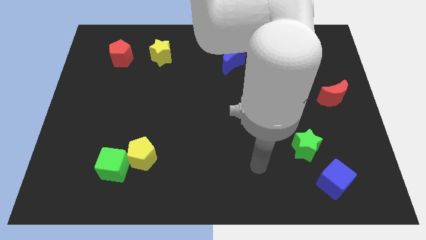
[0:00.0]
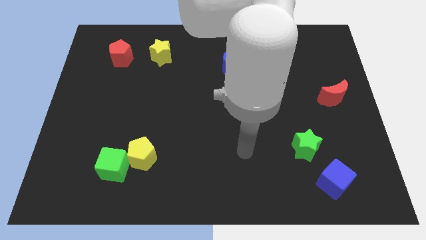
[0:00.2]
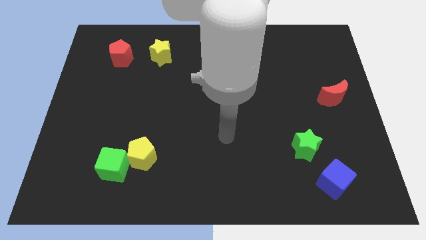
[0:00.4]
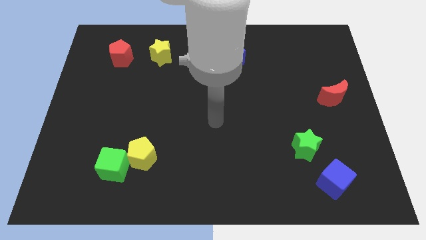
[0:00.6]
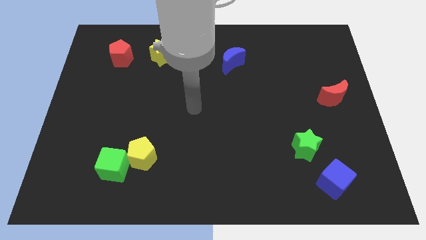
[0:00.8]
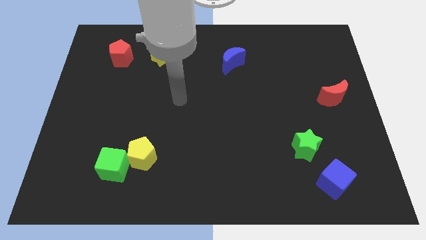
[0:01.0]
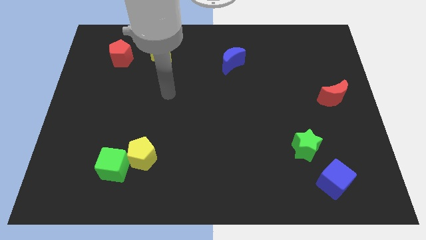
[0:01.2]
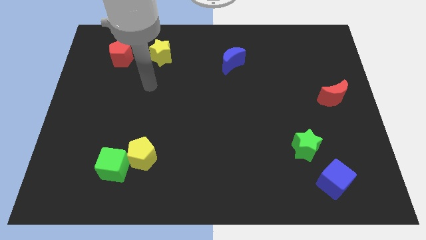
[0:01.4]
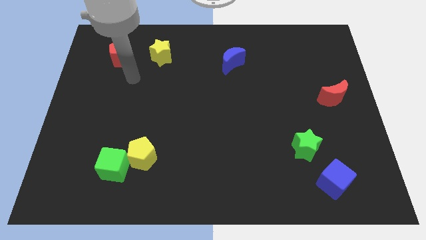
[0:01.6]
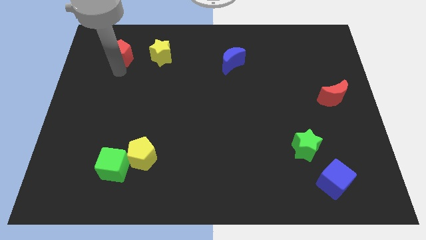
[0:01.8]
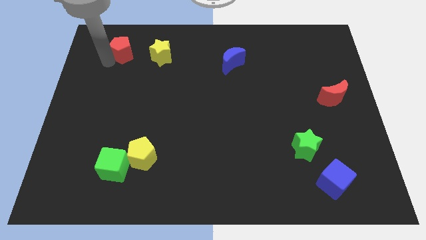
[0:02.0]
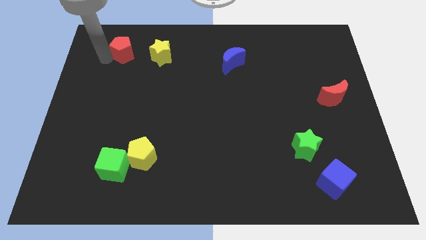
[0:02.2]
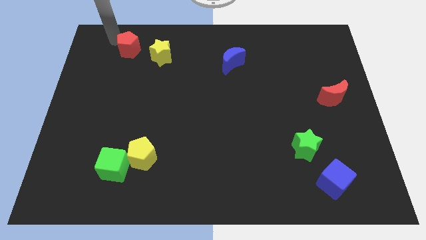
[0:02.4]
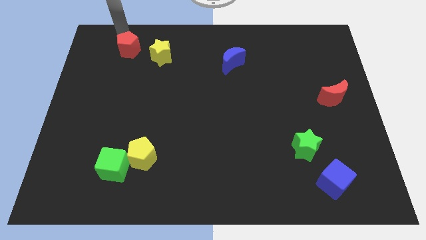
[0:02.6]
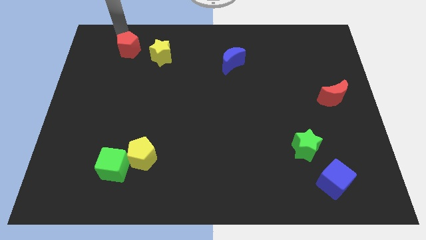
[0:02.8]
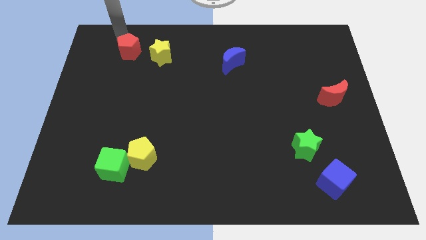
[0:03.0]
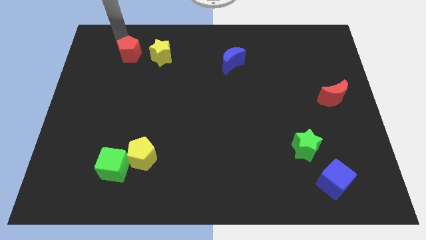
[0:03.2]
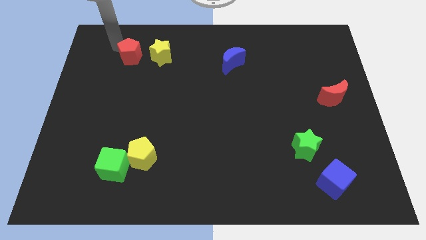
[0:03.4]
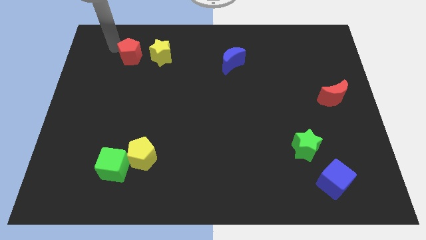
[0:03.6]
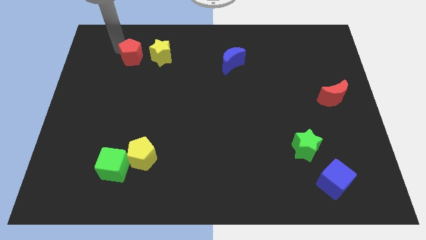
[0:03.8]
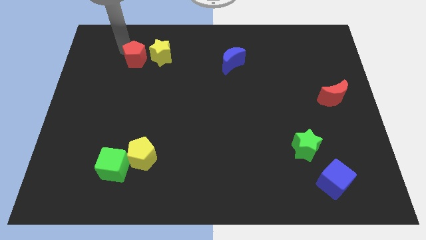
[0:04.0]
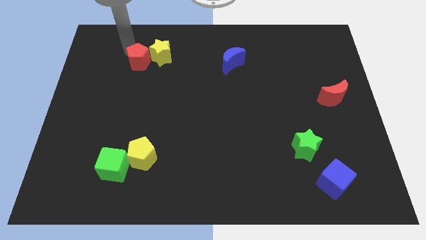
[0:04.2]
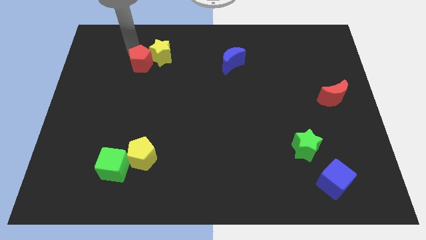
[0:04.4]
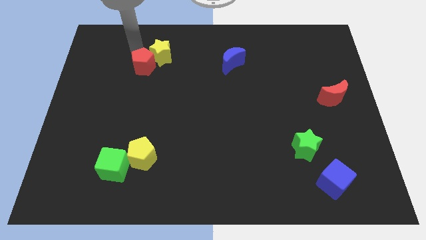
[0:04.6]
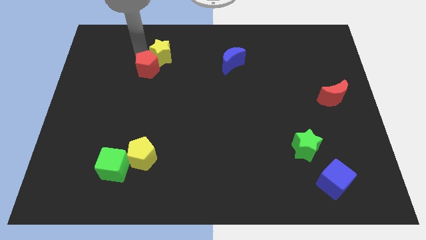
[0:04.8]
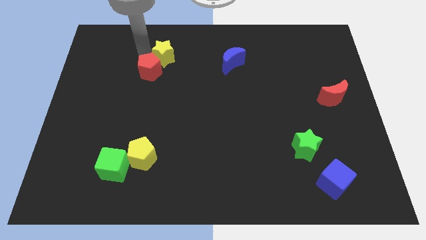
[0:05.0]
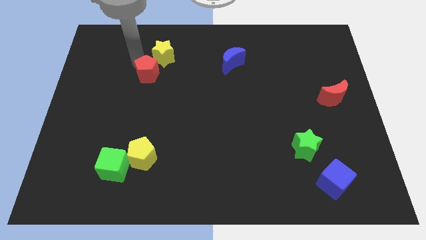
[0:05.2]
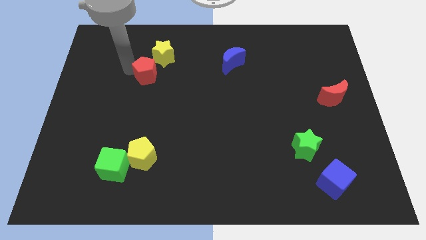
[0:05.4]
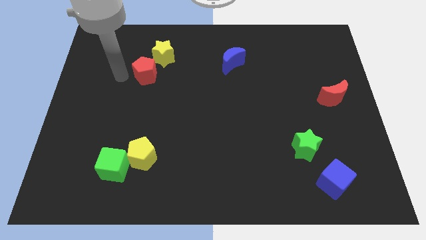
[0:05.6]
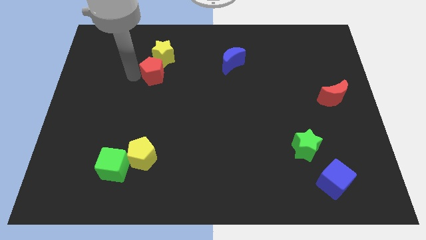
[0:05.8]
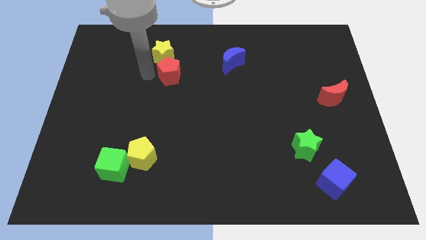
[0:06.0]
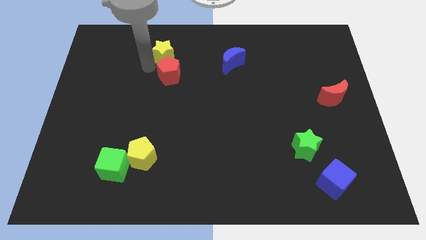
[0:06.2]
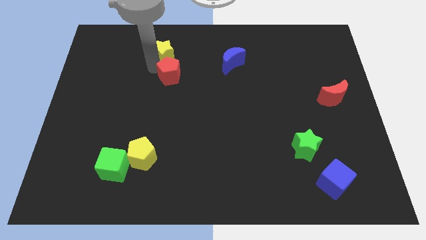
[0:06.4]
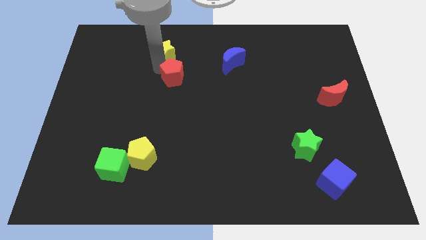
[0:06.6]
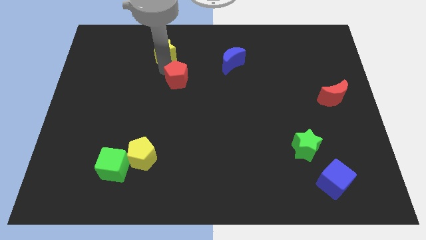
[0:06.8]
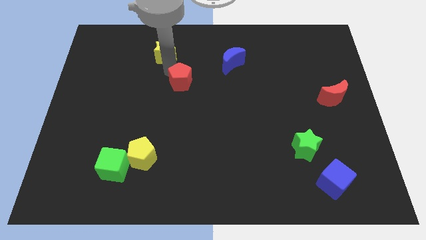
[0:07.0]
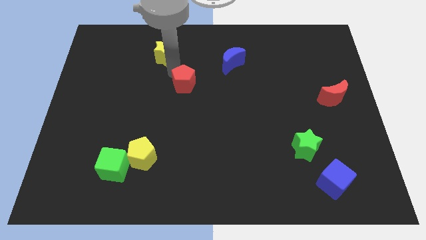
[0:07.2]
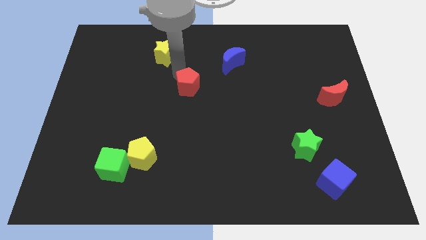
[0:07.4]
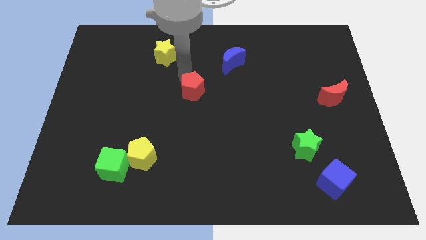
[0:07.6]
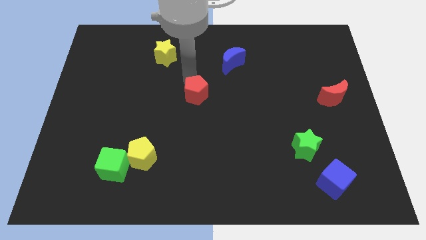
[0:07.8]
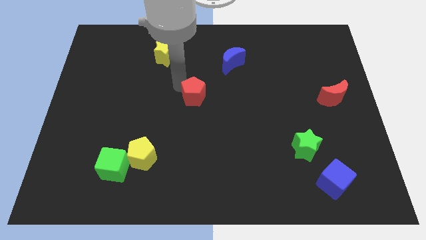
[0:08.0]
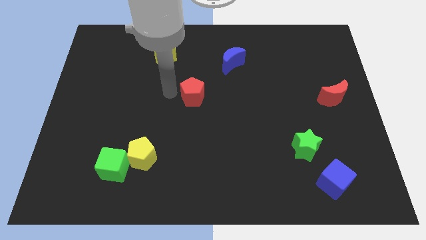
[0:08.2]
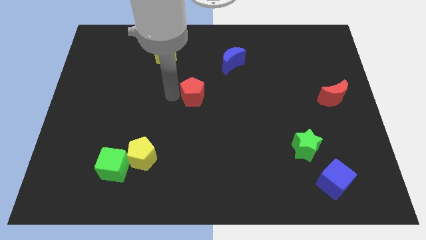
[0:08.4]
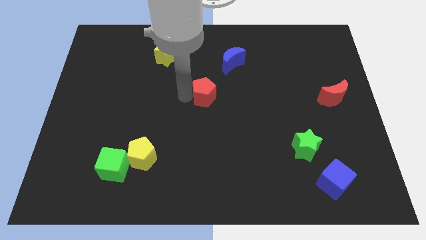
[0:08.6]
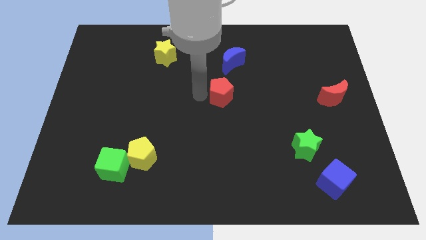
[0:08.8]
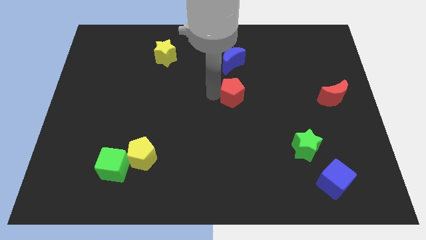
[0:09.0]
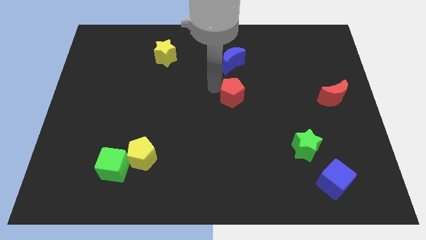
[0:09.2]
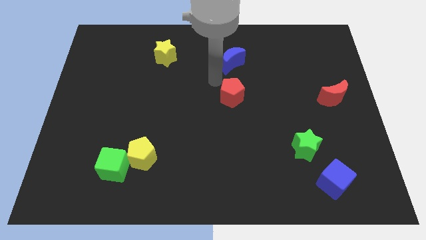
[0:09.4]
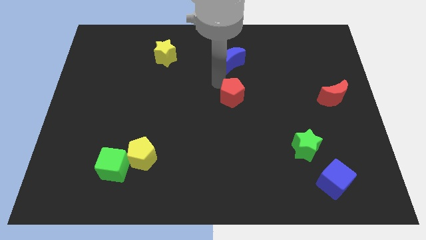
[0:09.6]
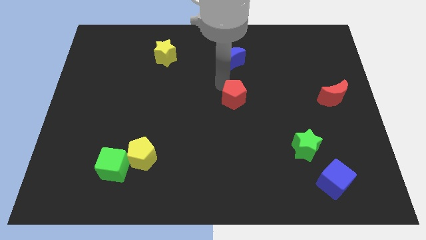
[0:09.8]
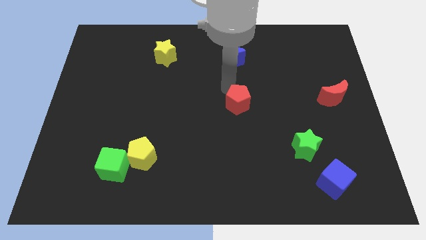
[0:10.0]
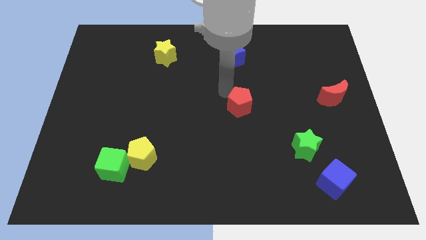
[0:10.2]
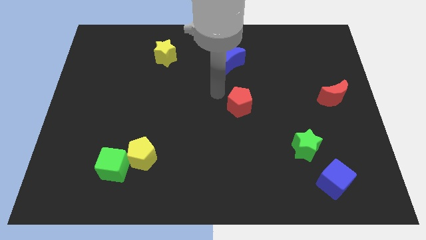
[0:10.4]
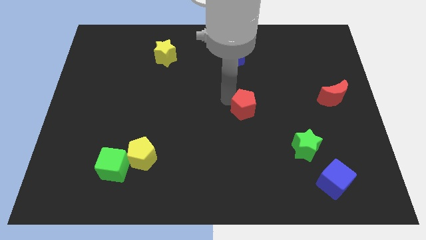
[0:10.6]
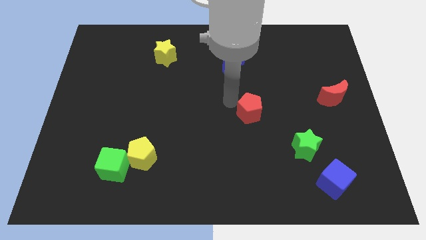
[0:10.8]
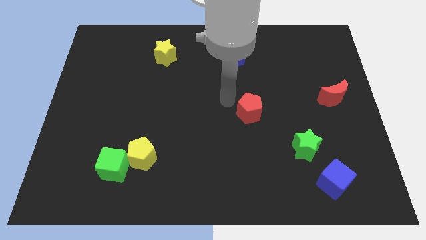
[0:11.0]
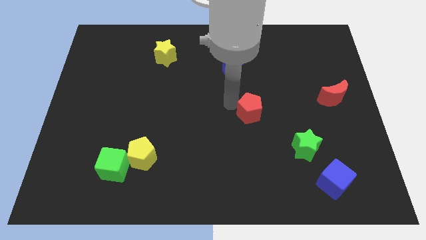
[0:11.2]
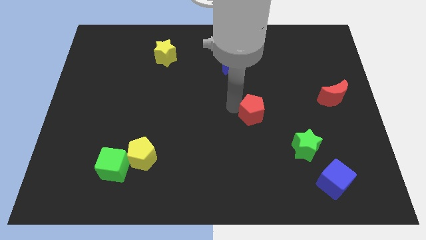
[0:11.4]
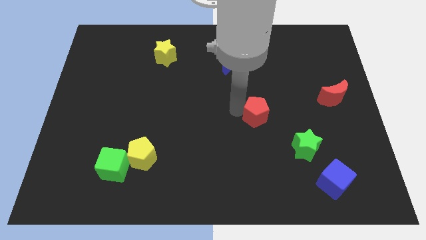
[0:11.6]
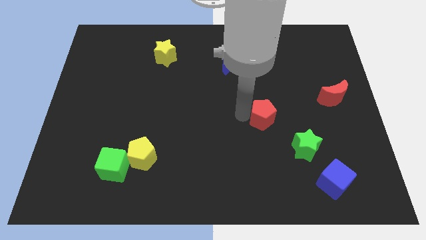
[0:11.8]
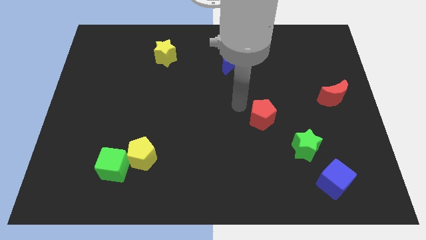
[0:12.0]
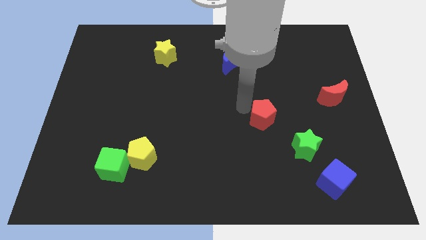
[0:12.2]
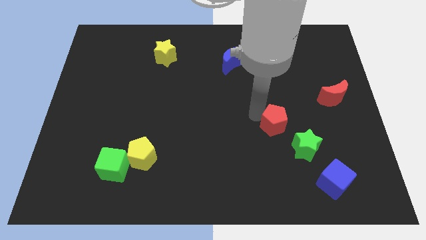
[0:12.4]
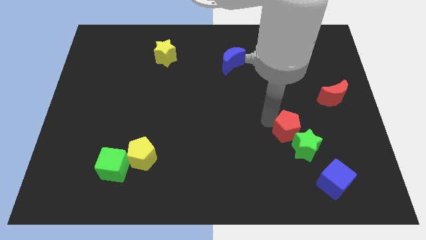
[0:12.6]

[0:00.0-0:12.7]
move the red pentagon towards the green star
